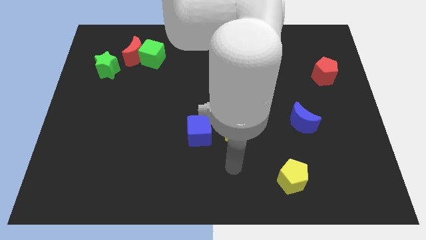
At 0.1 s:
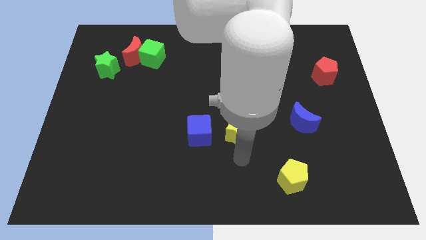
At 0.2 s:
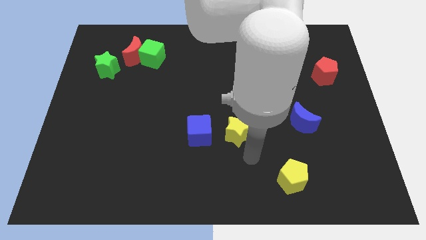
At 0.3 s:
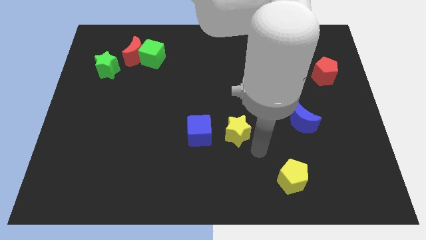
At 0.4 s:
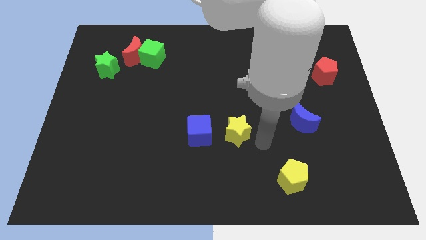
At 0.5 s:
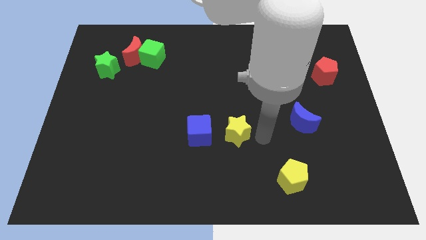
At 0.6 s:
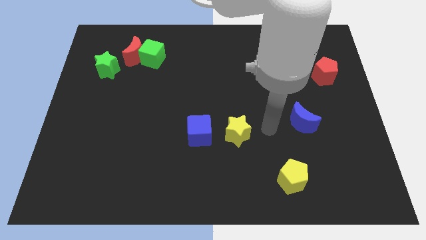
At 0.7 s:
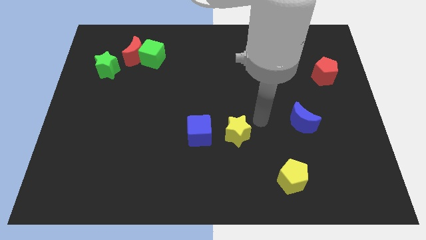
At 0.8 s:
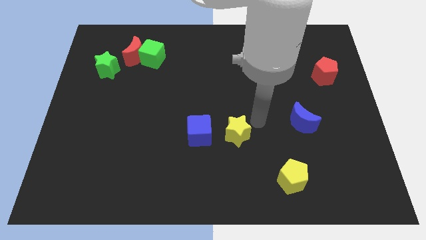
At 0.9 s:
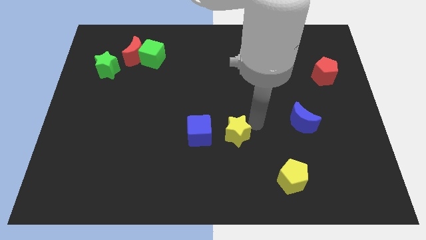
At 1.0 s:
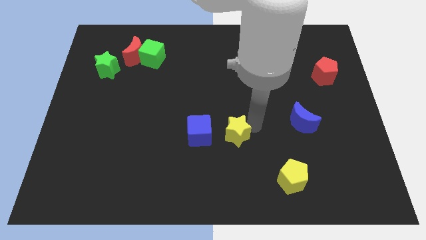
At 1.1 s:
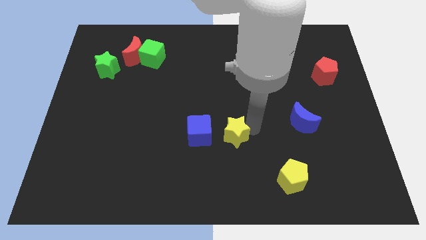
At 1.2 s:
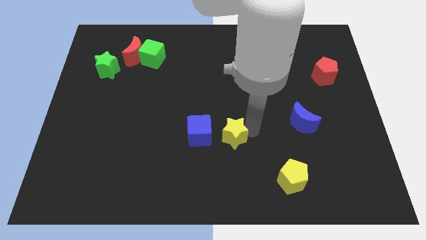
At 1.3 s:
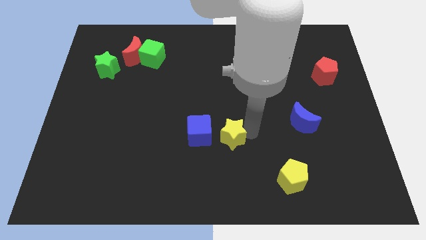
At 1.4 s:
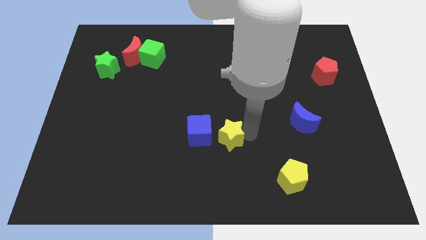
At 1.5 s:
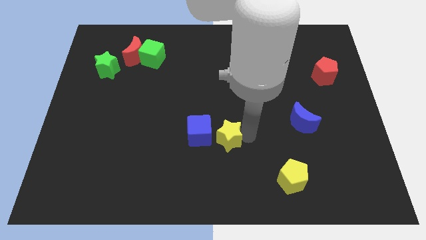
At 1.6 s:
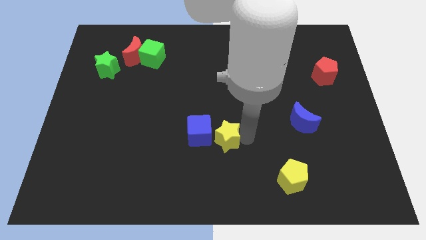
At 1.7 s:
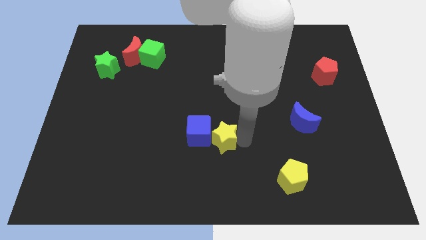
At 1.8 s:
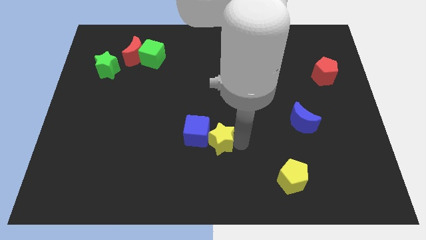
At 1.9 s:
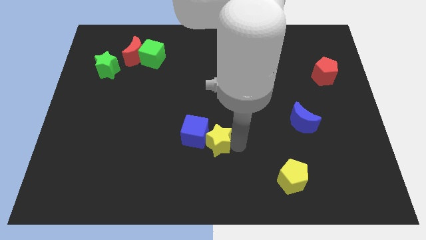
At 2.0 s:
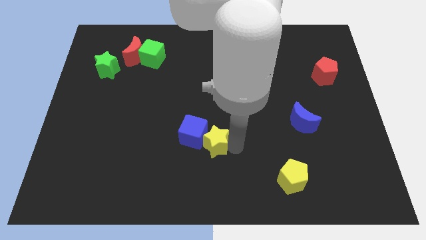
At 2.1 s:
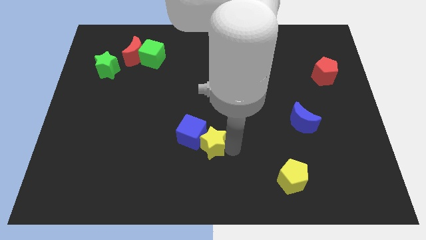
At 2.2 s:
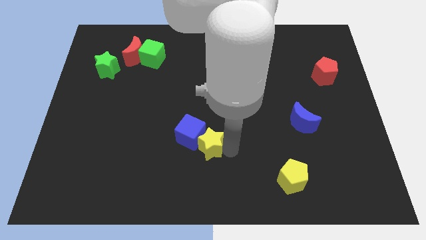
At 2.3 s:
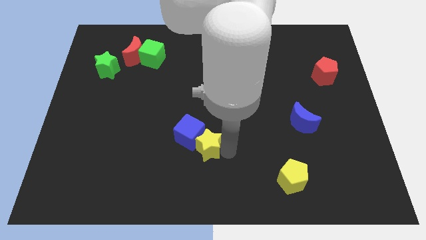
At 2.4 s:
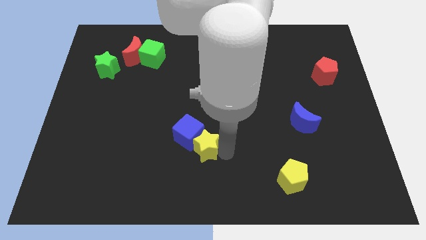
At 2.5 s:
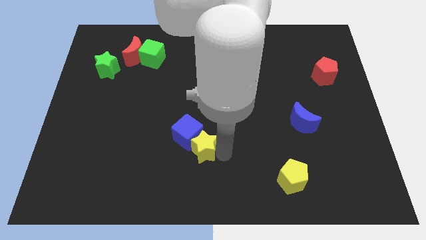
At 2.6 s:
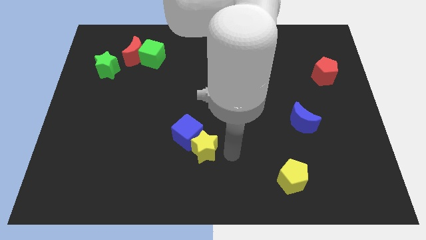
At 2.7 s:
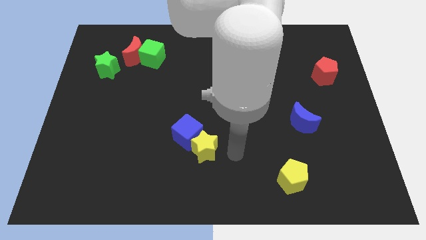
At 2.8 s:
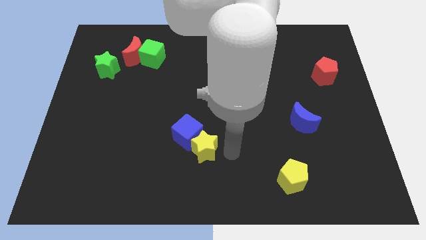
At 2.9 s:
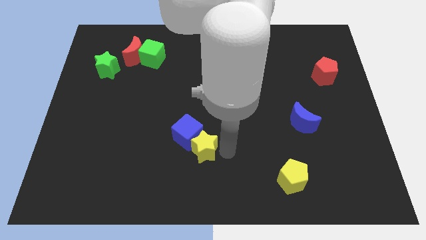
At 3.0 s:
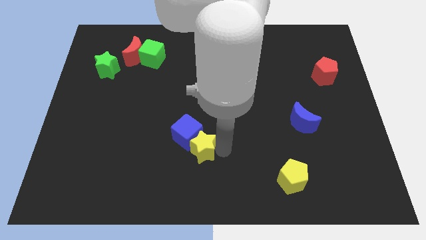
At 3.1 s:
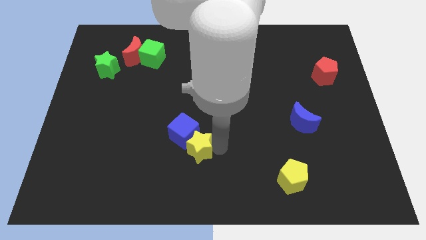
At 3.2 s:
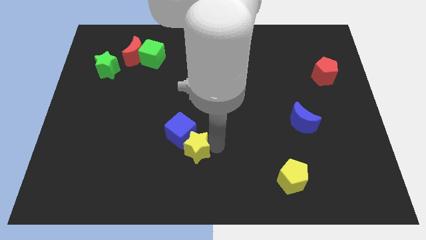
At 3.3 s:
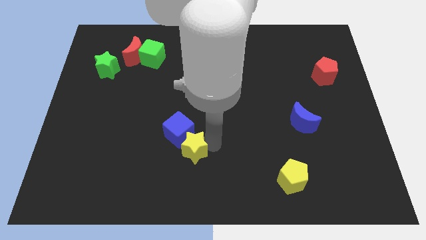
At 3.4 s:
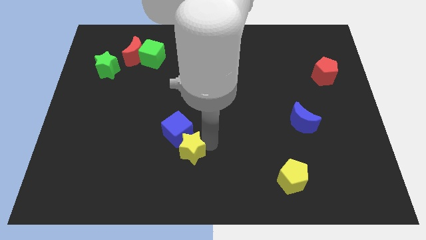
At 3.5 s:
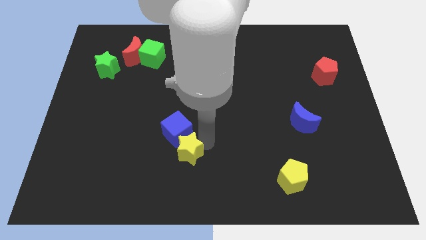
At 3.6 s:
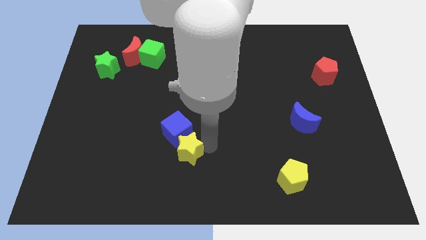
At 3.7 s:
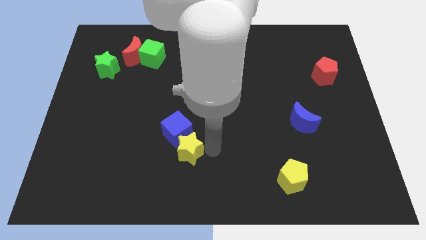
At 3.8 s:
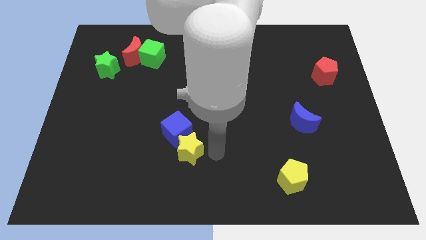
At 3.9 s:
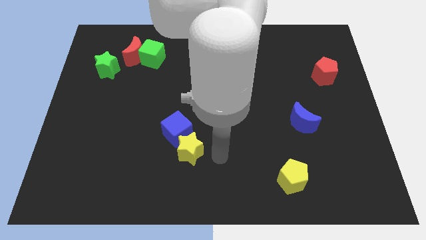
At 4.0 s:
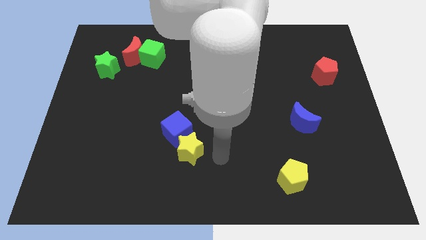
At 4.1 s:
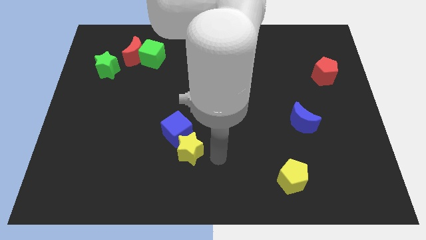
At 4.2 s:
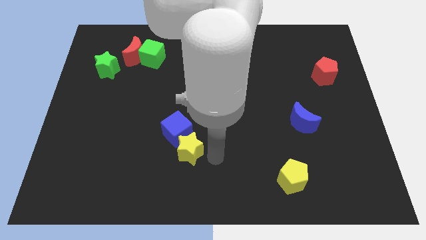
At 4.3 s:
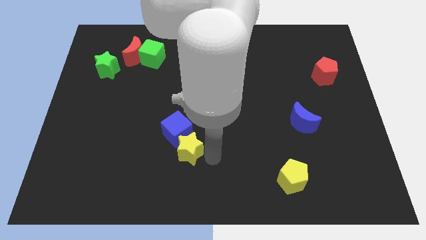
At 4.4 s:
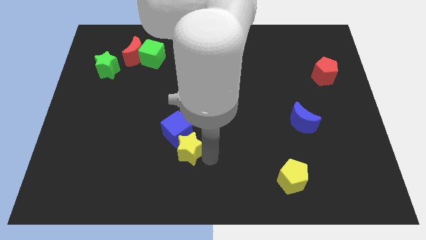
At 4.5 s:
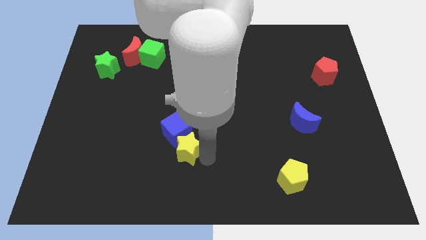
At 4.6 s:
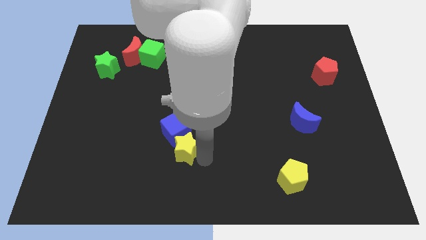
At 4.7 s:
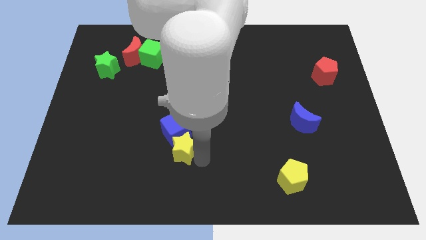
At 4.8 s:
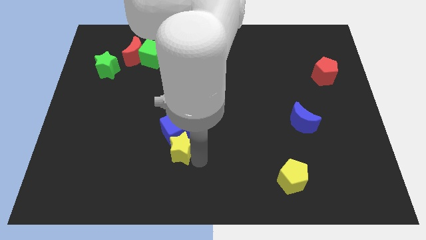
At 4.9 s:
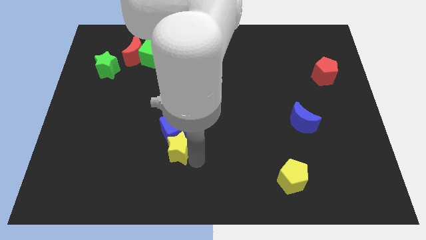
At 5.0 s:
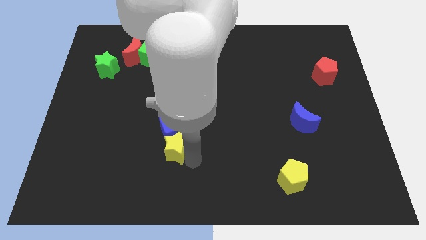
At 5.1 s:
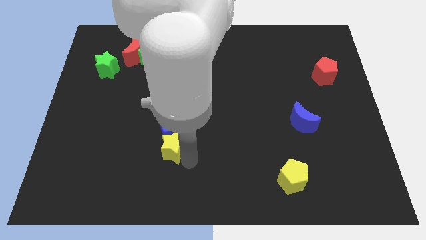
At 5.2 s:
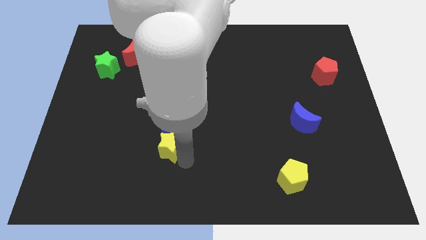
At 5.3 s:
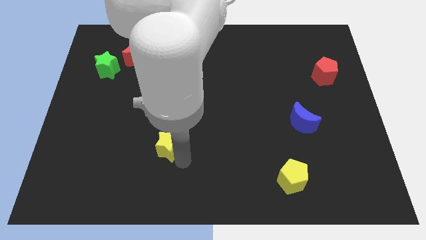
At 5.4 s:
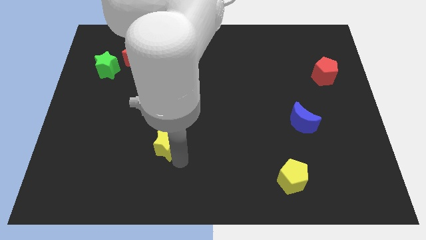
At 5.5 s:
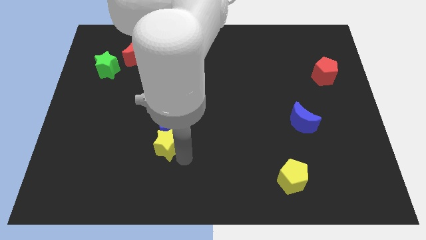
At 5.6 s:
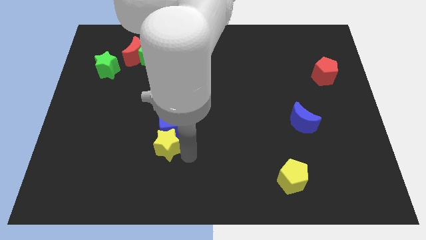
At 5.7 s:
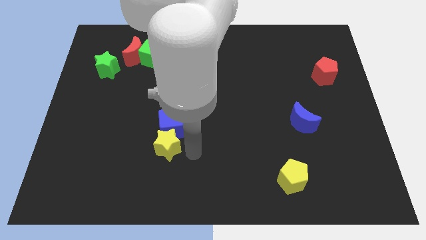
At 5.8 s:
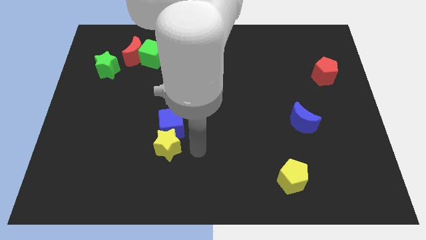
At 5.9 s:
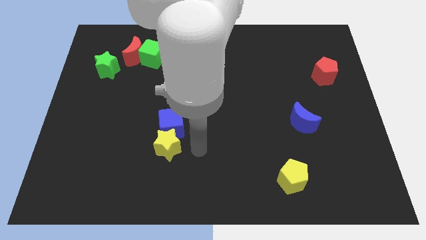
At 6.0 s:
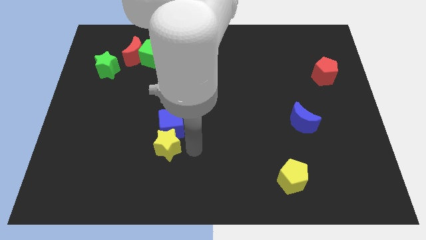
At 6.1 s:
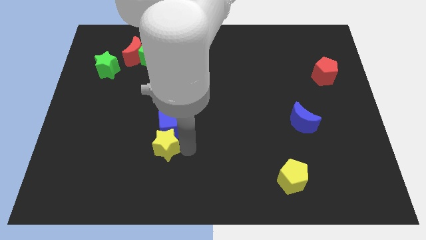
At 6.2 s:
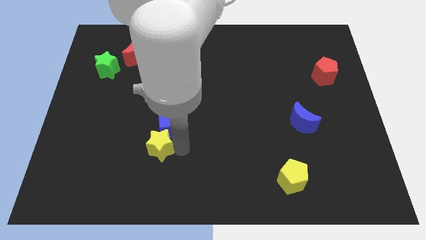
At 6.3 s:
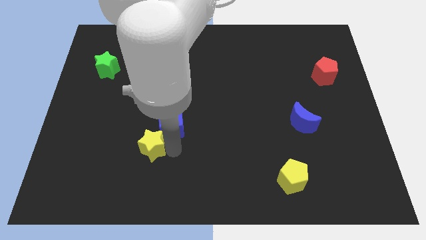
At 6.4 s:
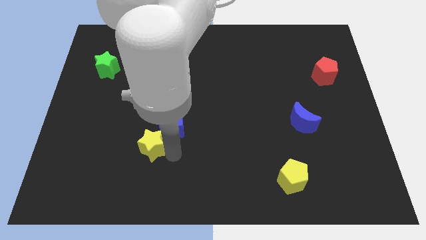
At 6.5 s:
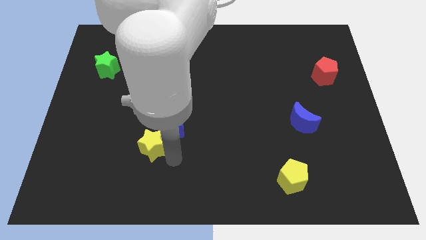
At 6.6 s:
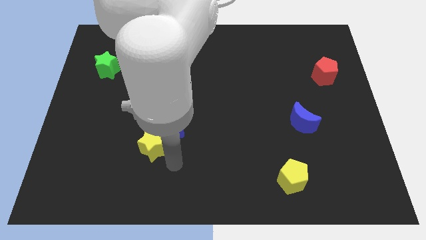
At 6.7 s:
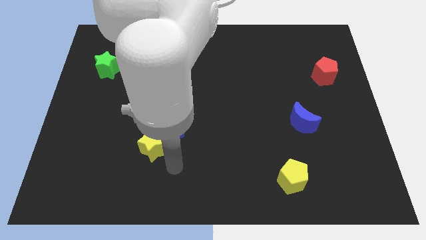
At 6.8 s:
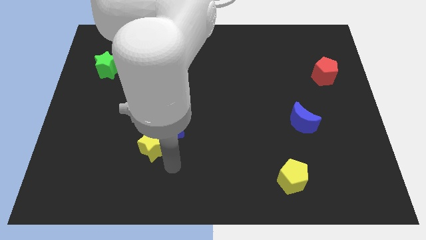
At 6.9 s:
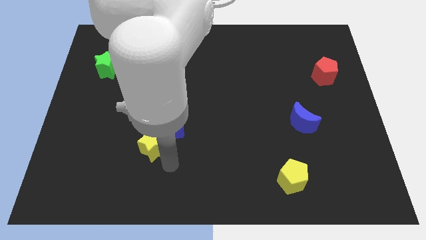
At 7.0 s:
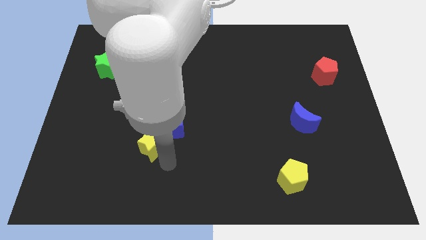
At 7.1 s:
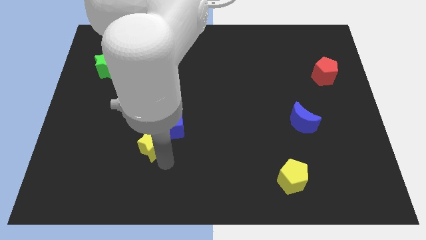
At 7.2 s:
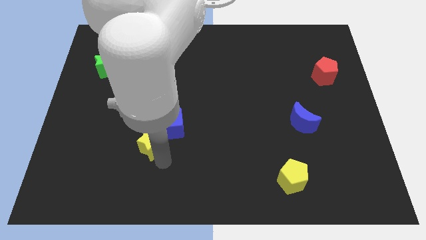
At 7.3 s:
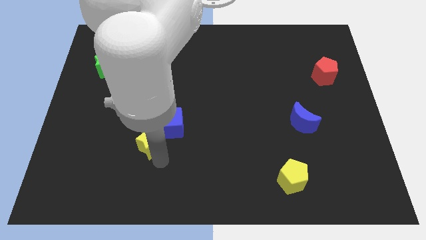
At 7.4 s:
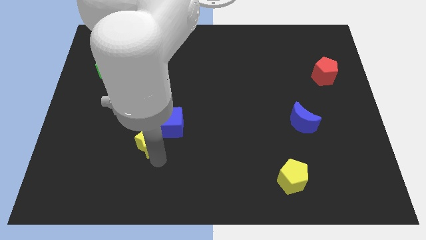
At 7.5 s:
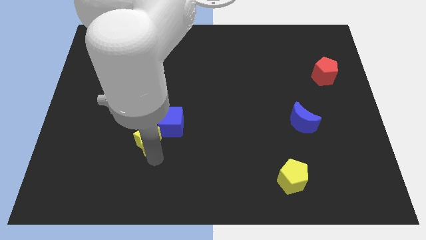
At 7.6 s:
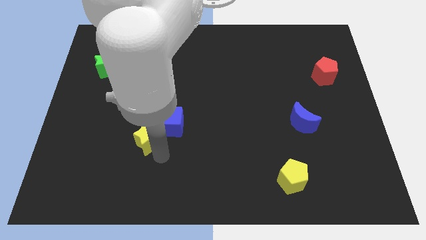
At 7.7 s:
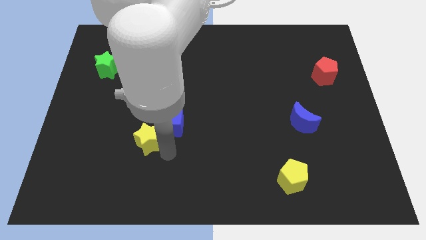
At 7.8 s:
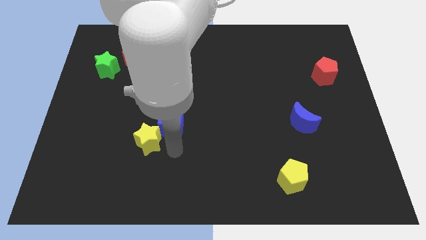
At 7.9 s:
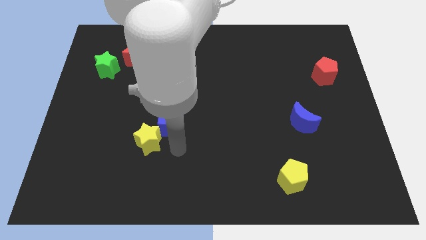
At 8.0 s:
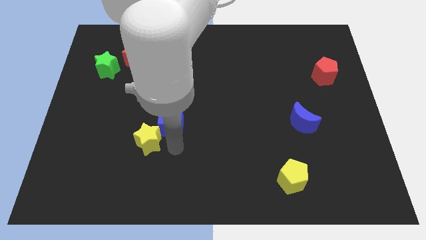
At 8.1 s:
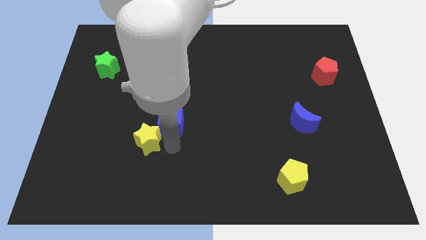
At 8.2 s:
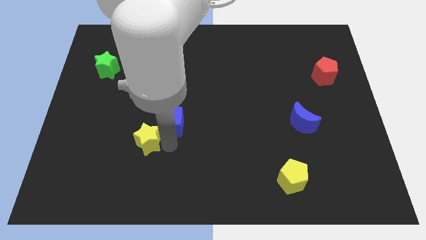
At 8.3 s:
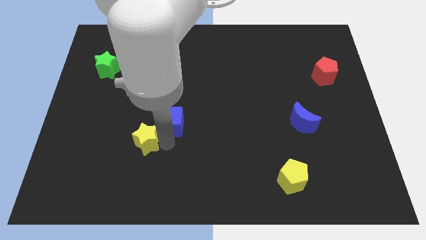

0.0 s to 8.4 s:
slide the yellow star to the left
